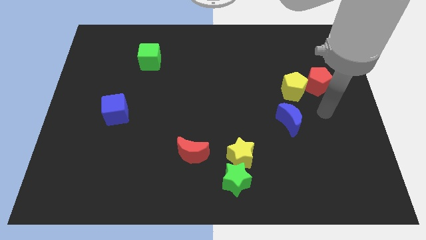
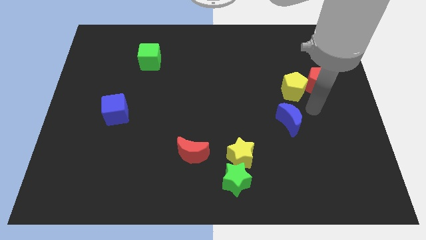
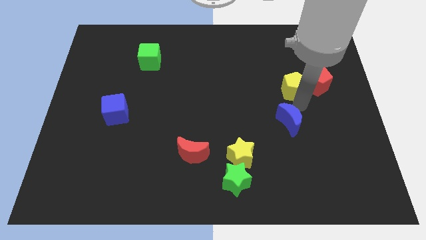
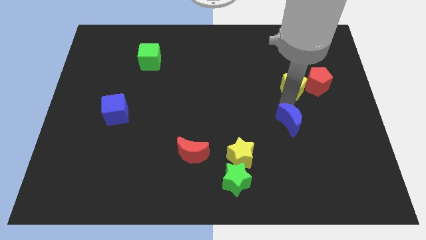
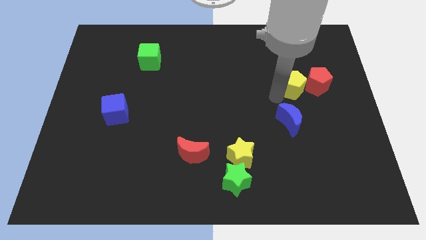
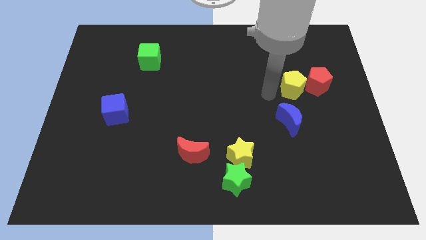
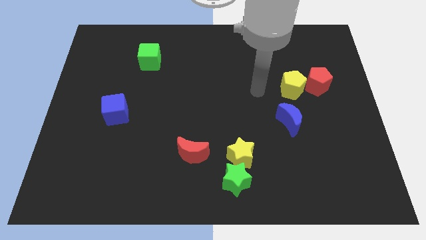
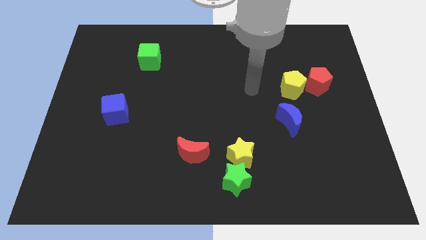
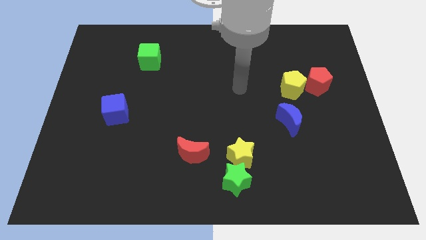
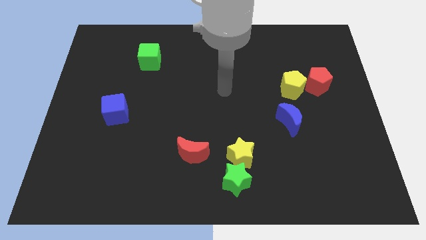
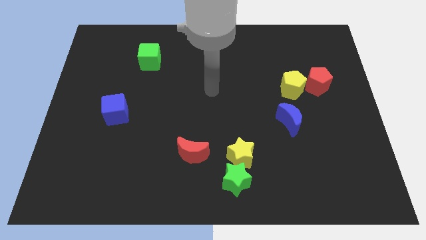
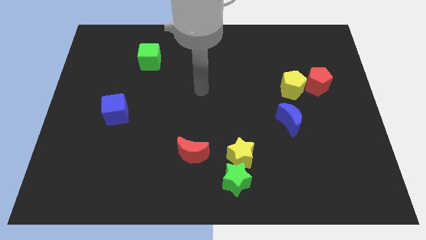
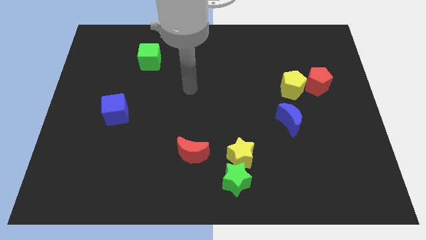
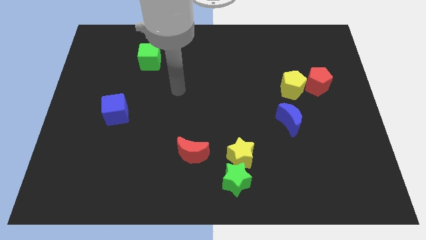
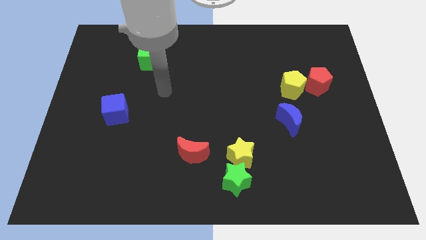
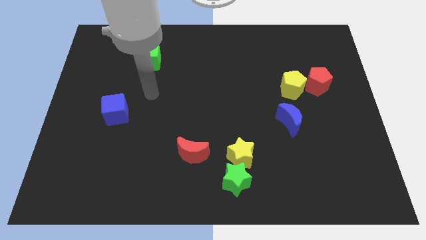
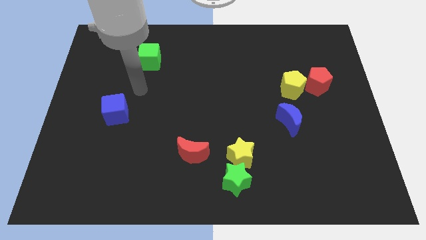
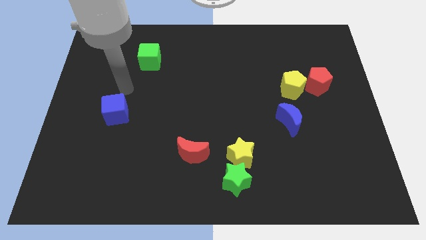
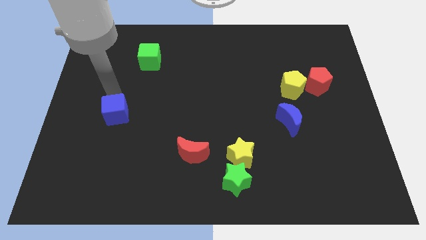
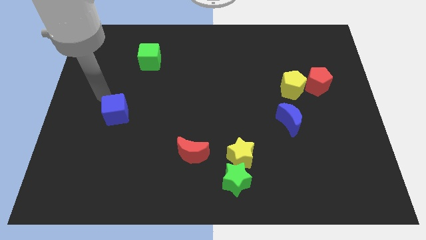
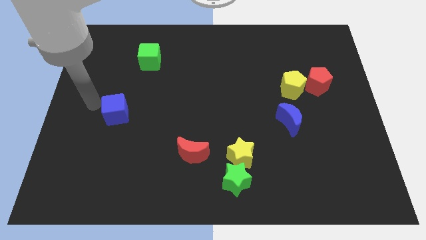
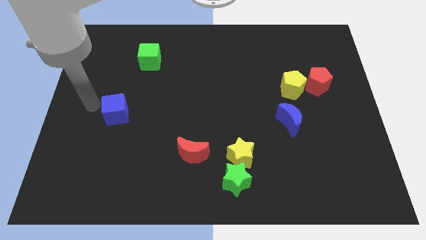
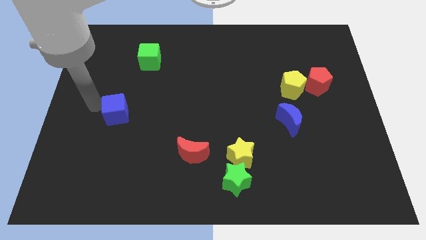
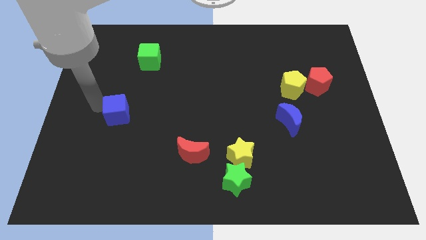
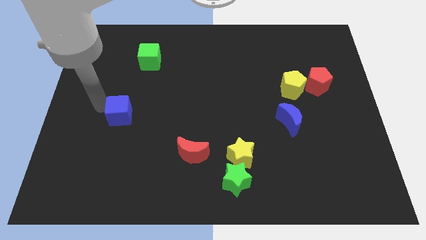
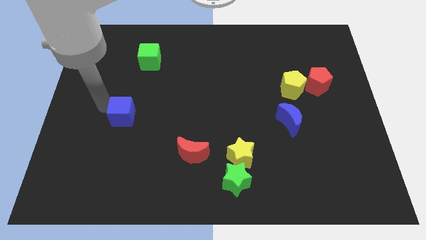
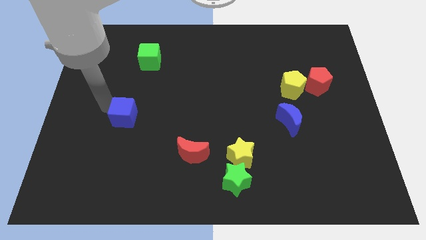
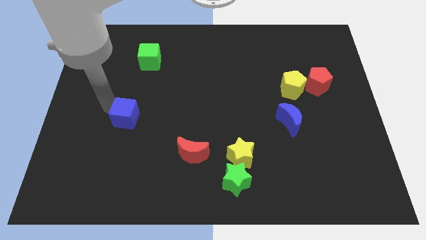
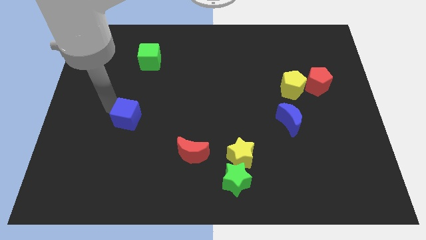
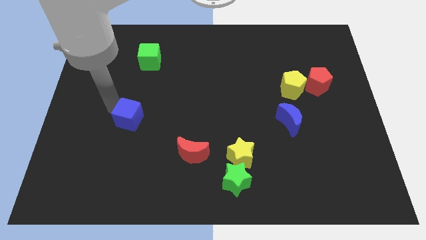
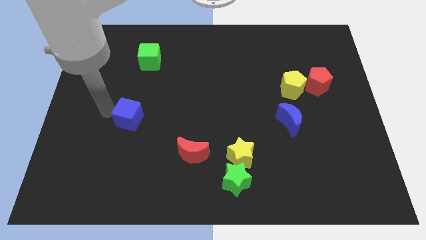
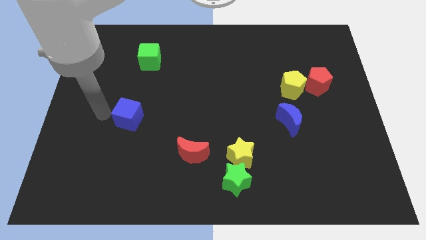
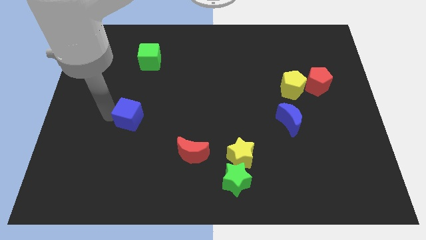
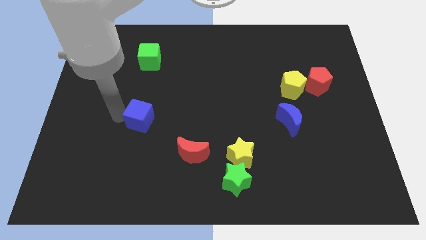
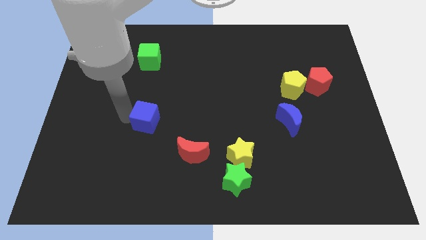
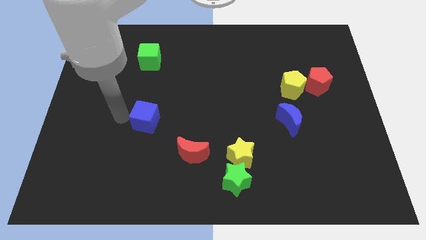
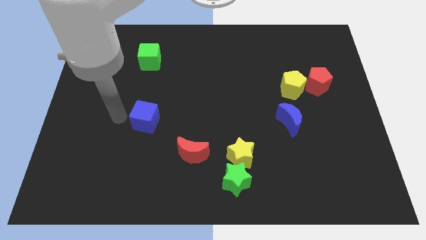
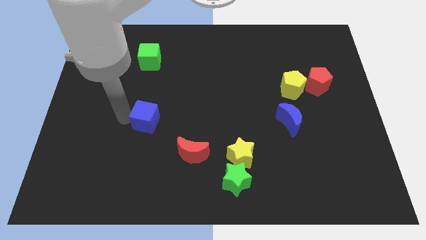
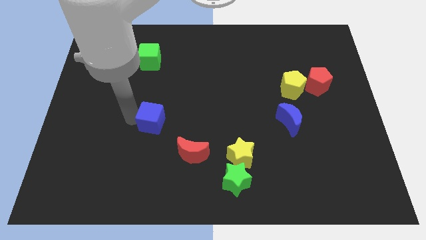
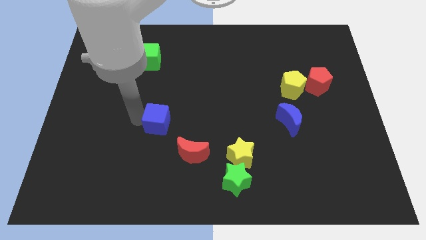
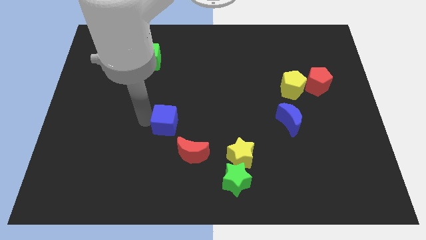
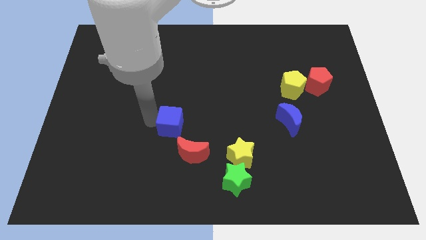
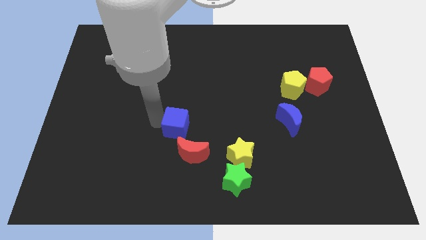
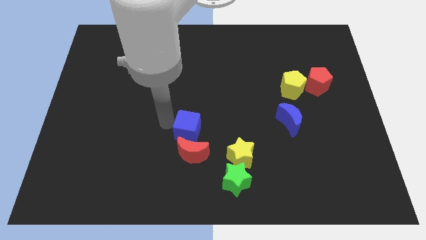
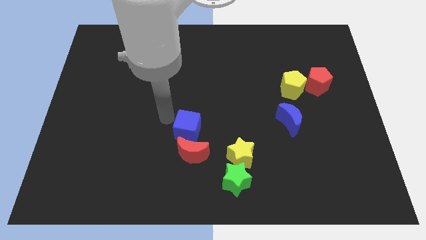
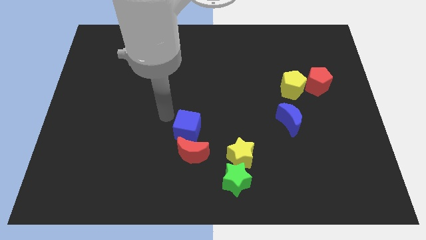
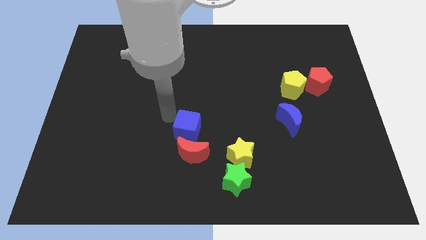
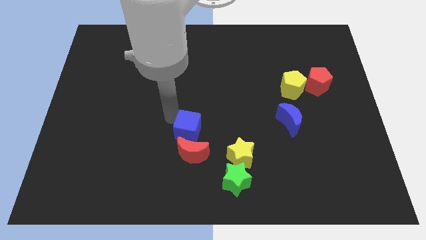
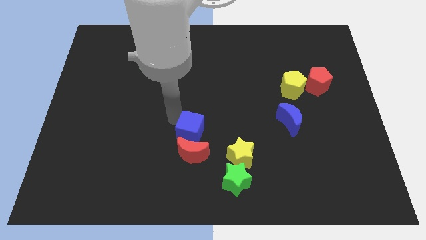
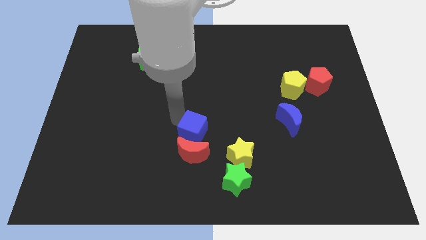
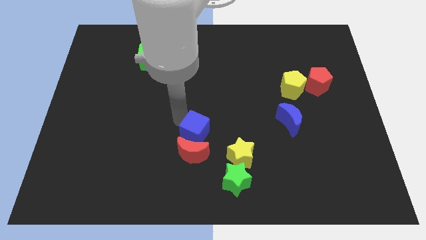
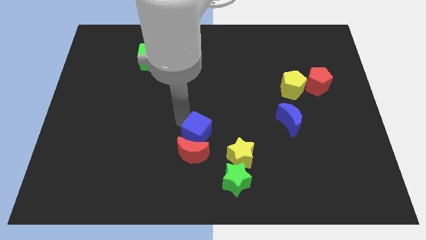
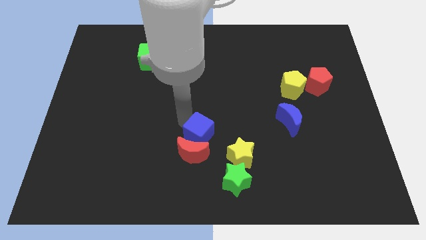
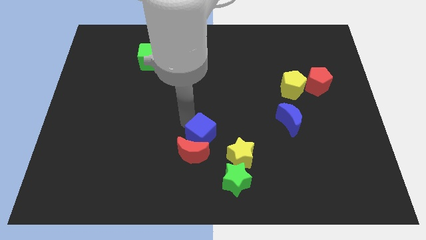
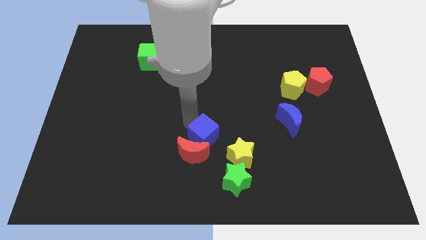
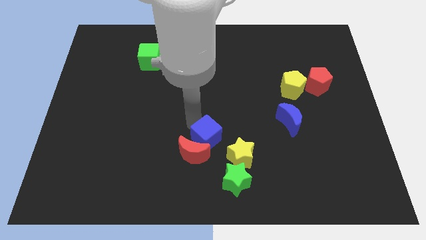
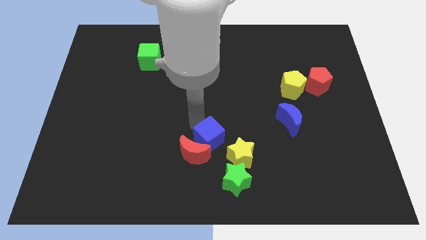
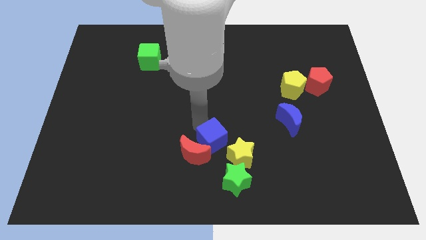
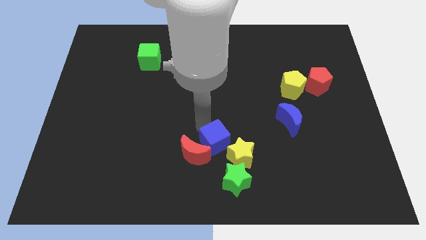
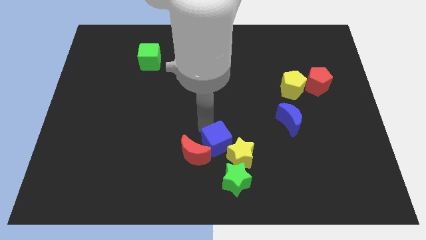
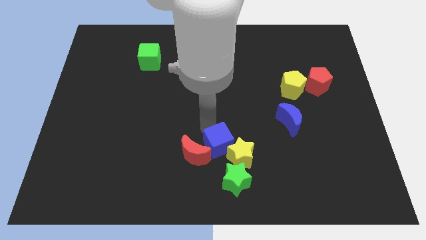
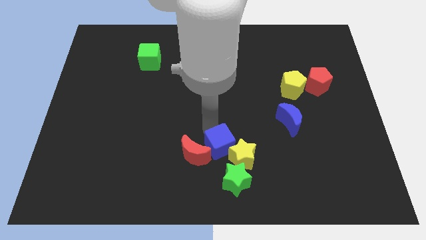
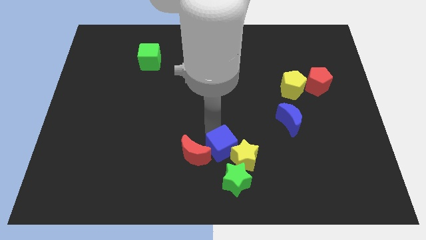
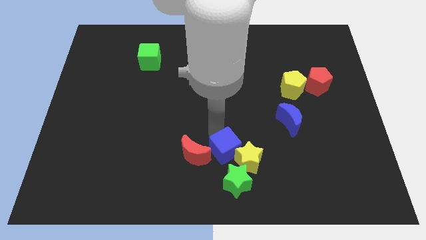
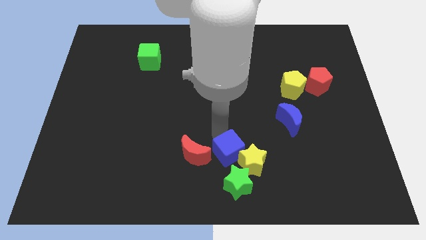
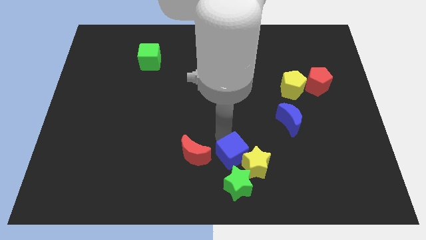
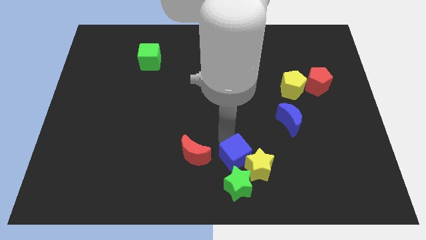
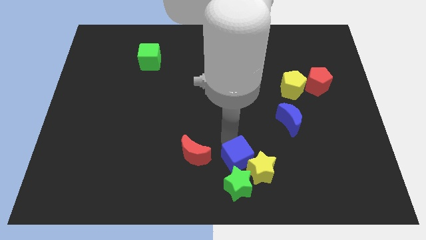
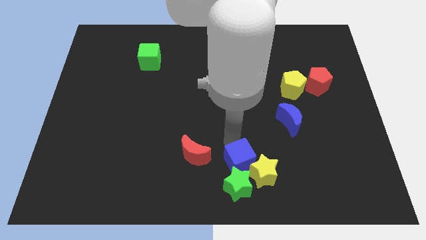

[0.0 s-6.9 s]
push the blue cube next to the green star
